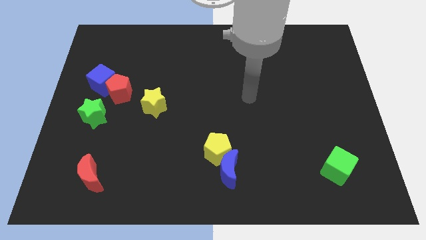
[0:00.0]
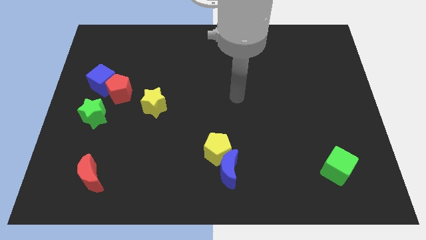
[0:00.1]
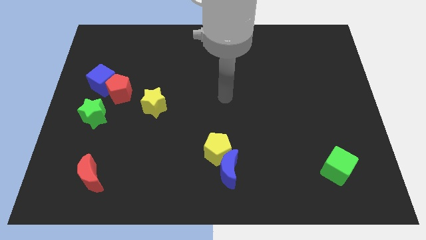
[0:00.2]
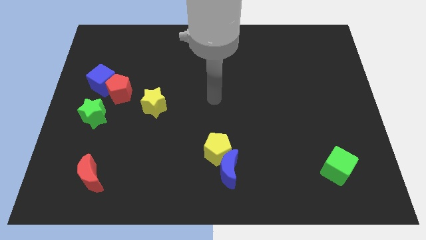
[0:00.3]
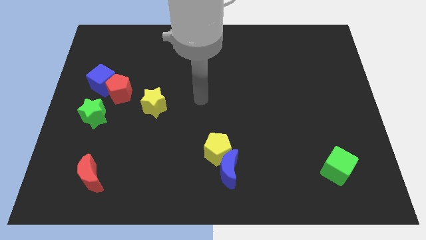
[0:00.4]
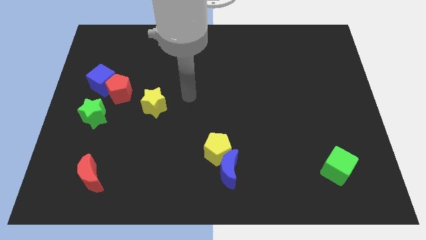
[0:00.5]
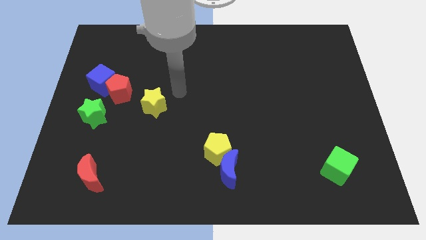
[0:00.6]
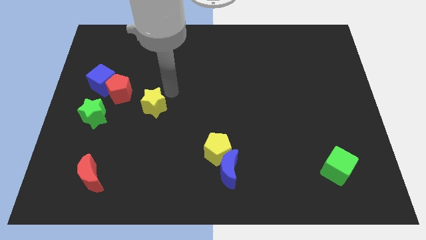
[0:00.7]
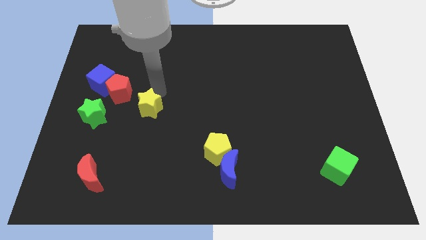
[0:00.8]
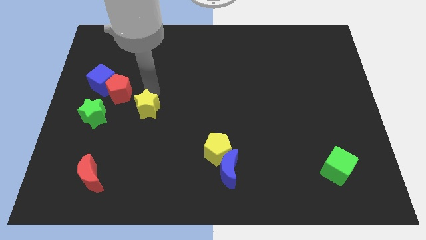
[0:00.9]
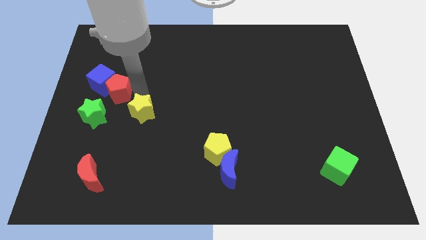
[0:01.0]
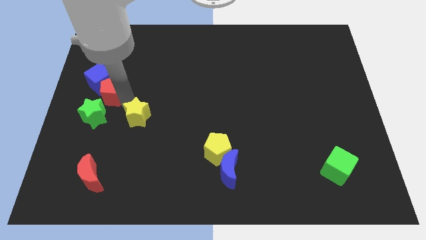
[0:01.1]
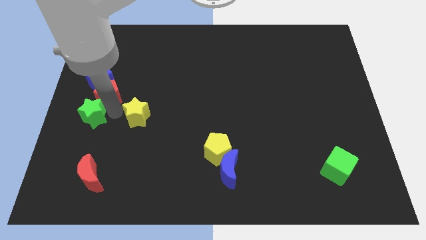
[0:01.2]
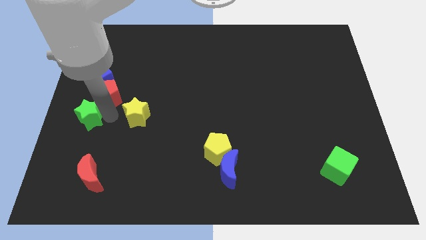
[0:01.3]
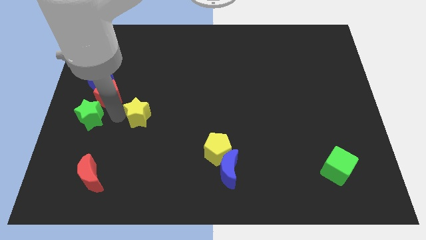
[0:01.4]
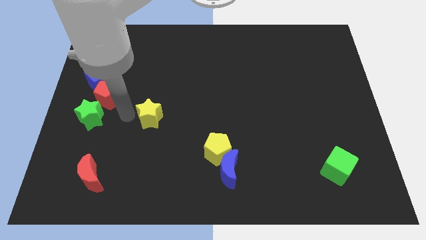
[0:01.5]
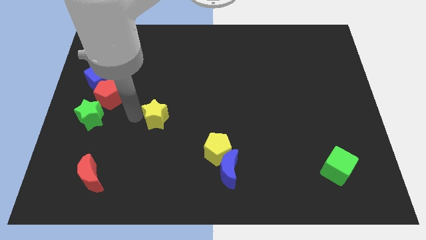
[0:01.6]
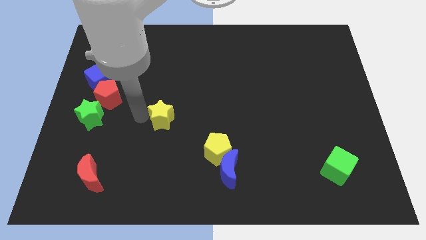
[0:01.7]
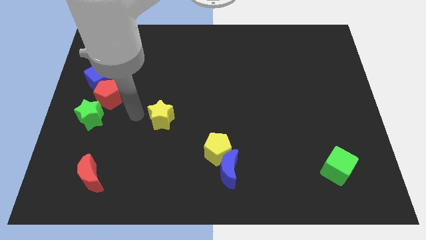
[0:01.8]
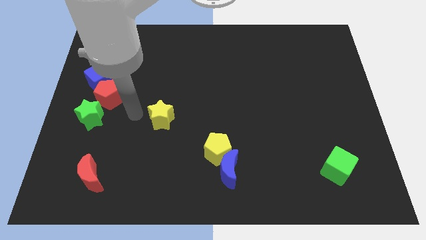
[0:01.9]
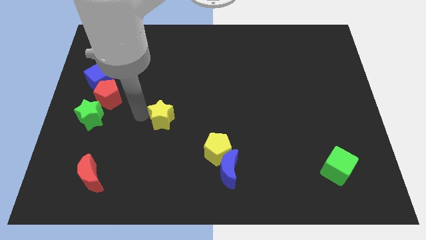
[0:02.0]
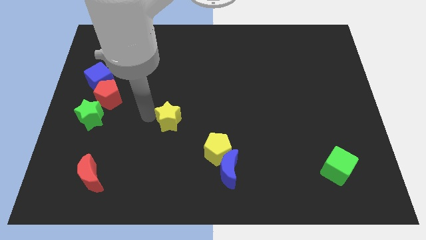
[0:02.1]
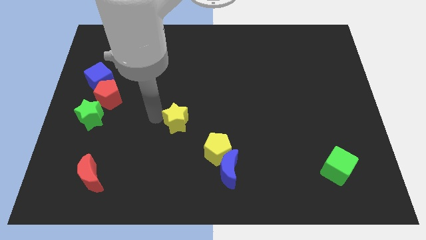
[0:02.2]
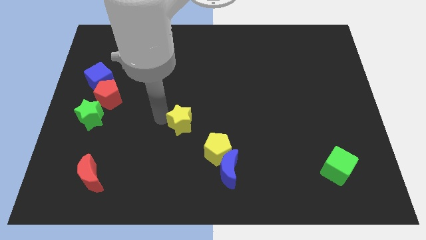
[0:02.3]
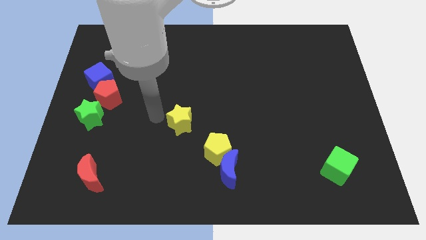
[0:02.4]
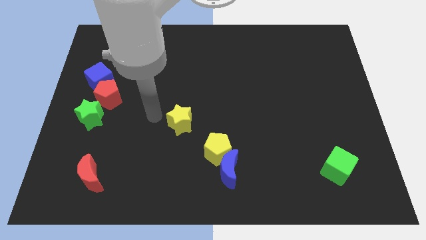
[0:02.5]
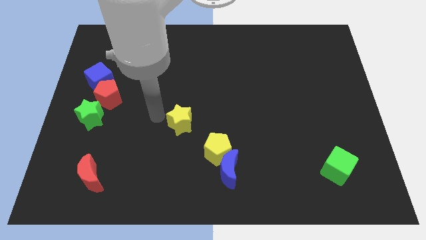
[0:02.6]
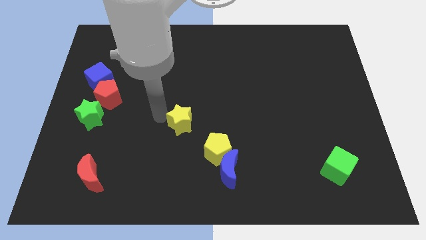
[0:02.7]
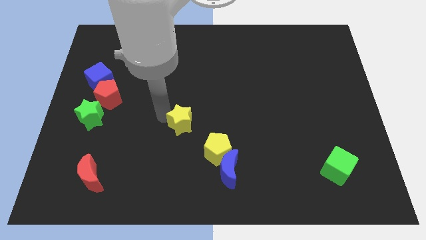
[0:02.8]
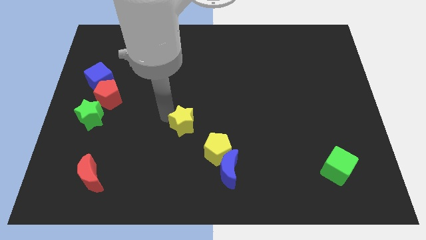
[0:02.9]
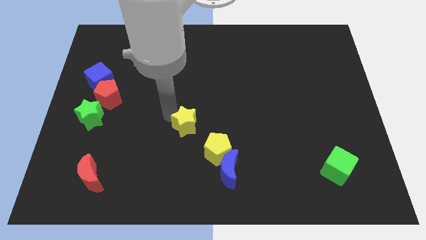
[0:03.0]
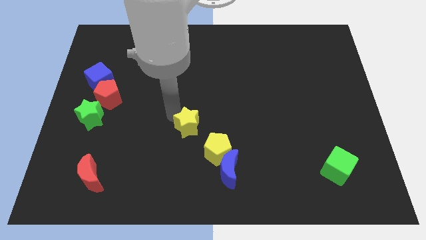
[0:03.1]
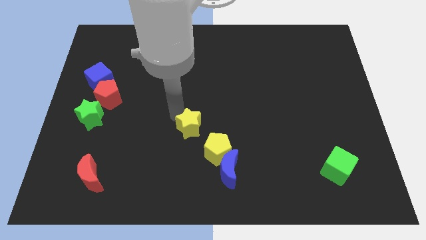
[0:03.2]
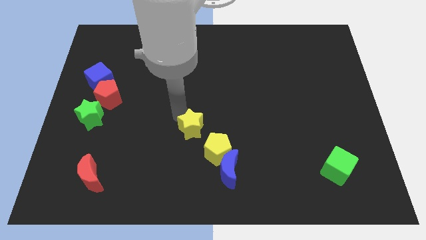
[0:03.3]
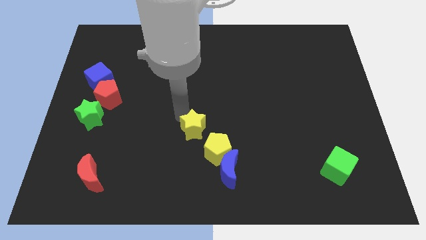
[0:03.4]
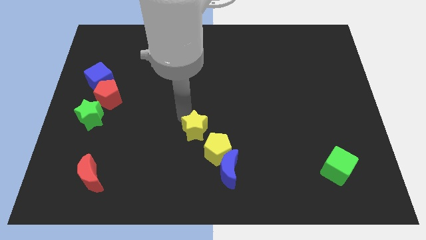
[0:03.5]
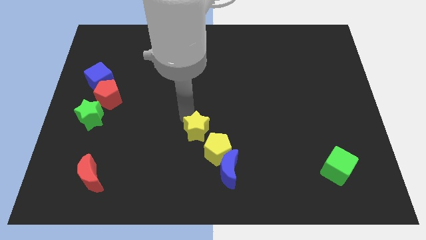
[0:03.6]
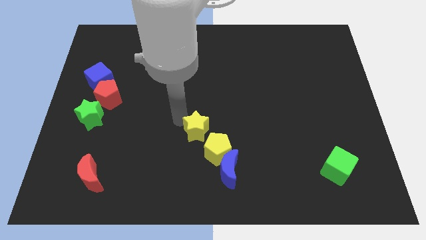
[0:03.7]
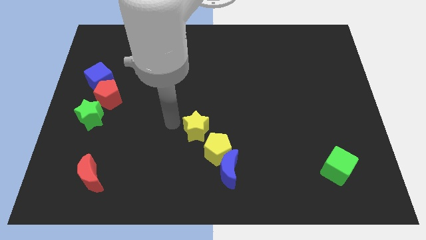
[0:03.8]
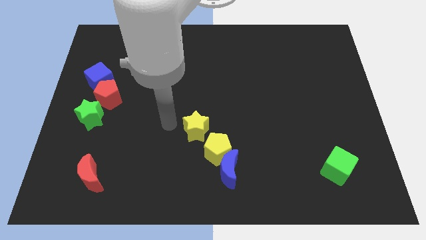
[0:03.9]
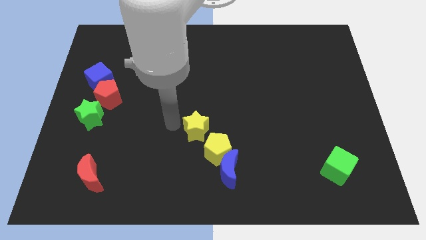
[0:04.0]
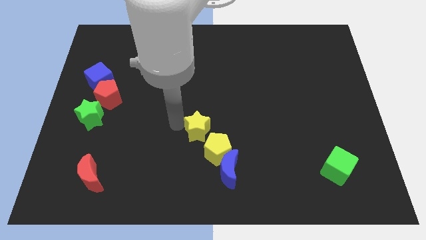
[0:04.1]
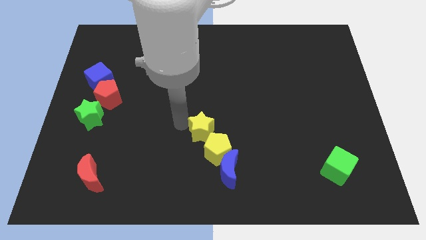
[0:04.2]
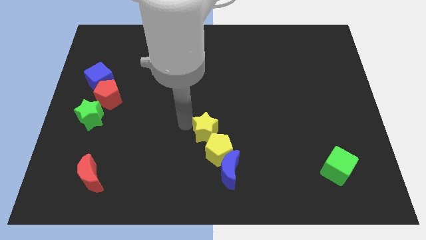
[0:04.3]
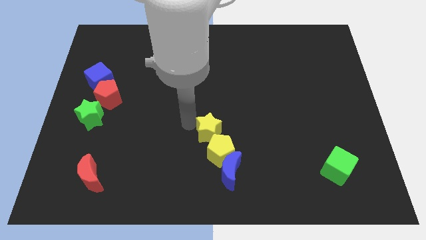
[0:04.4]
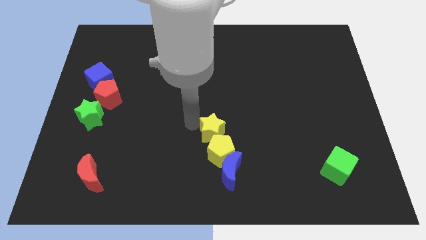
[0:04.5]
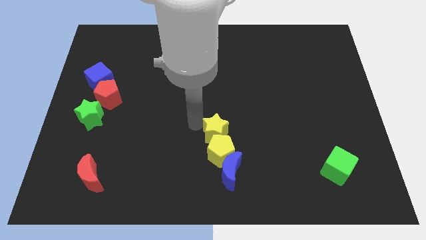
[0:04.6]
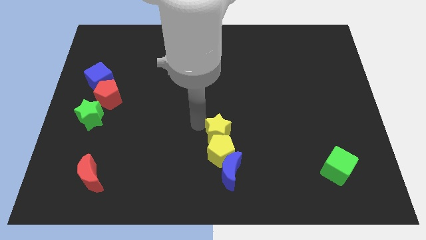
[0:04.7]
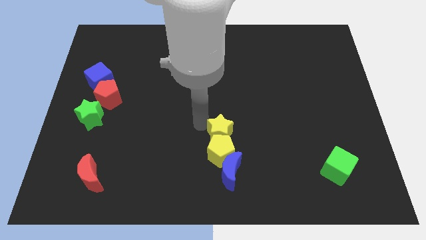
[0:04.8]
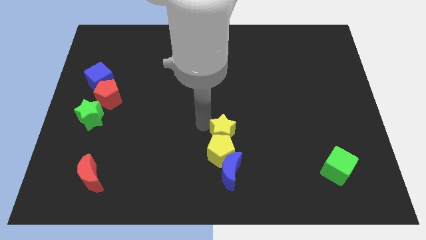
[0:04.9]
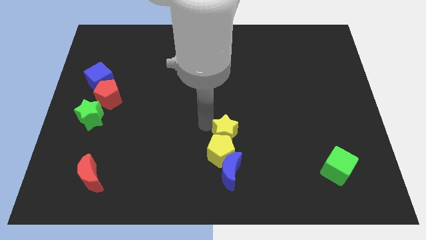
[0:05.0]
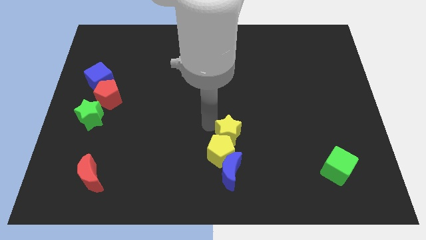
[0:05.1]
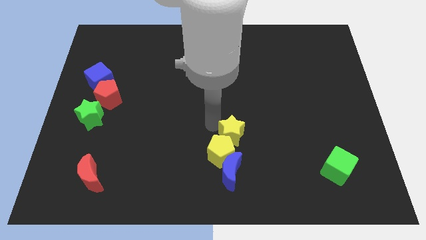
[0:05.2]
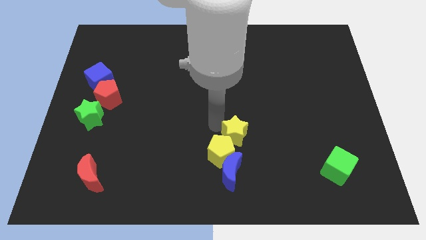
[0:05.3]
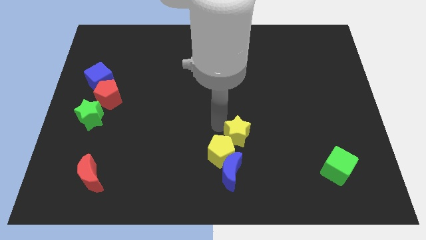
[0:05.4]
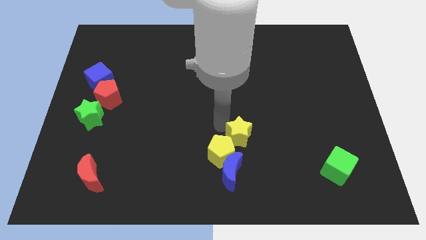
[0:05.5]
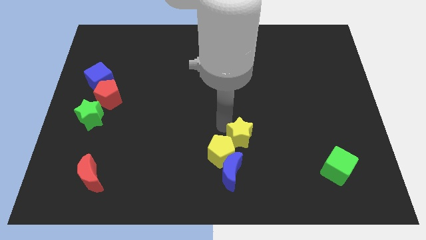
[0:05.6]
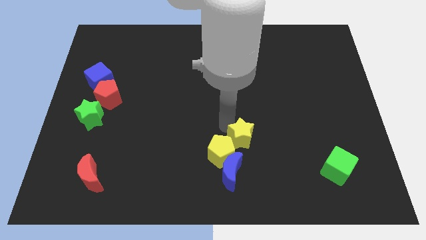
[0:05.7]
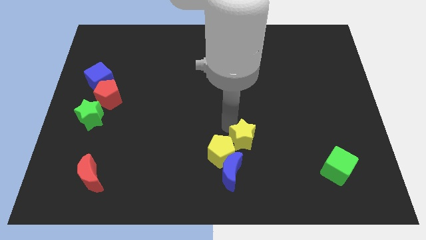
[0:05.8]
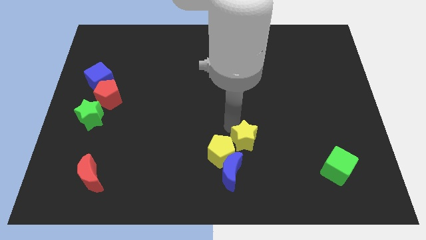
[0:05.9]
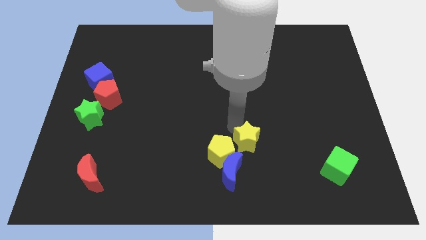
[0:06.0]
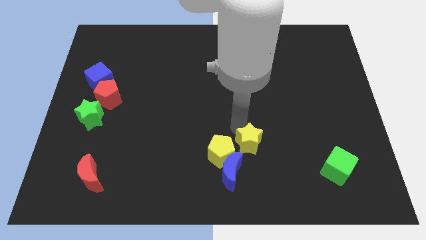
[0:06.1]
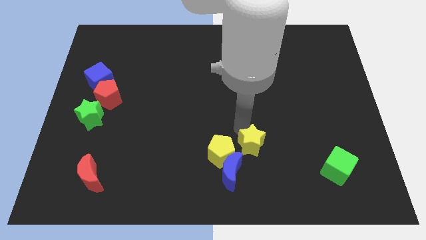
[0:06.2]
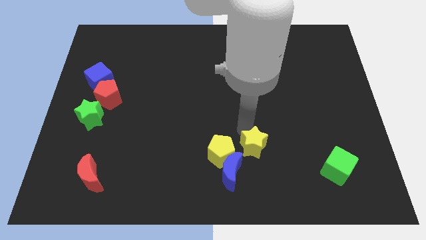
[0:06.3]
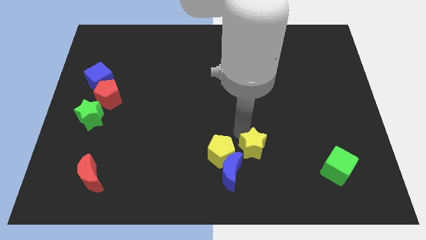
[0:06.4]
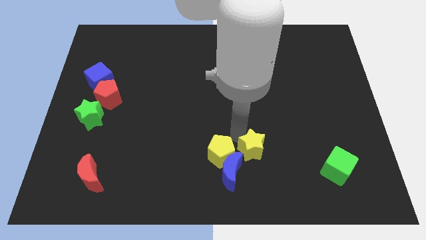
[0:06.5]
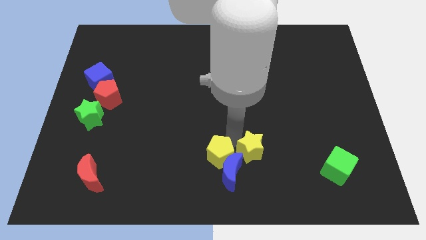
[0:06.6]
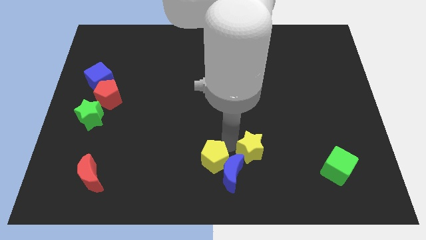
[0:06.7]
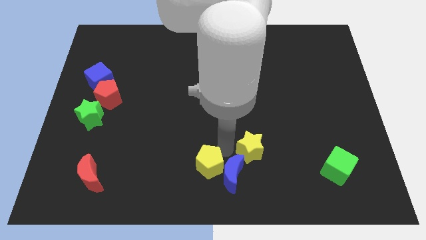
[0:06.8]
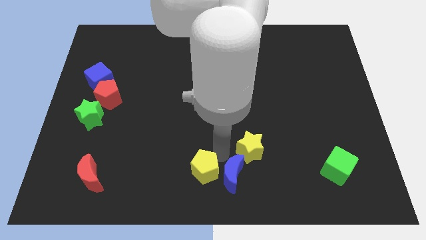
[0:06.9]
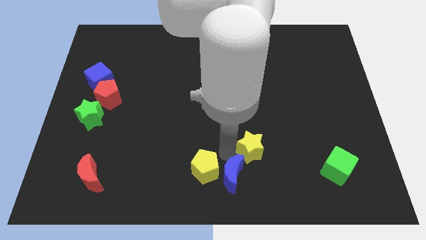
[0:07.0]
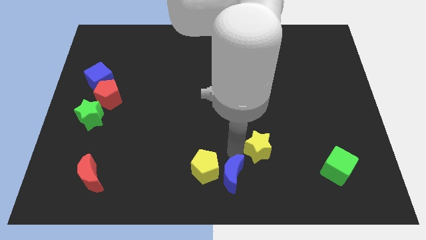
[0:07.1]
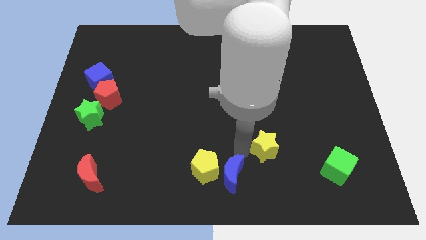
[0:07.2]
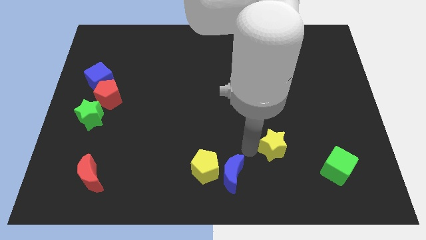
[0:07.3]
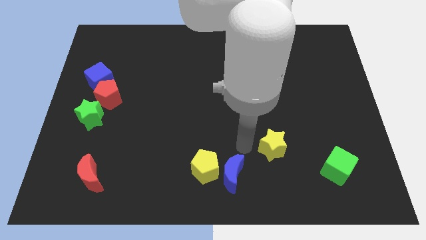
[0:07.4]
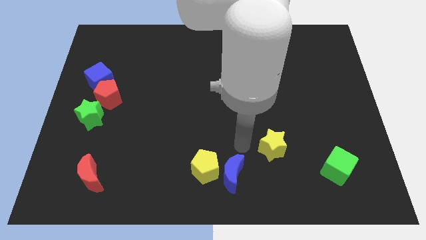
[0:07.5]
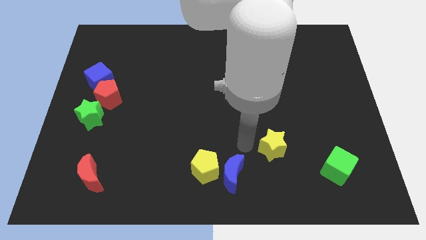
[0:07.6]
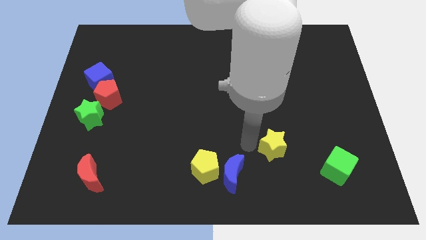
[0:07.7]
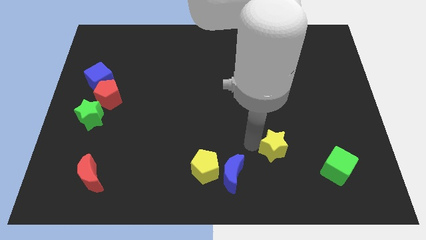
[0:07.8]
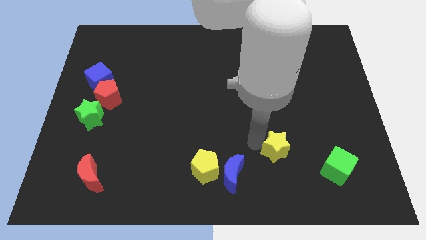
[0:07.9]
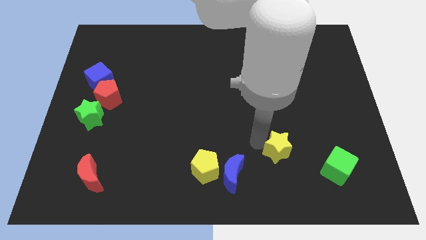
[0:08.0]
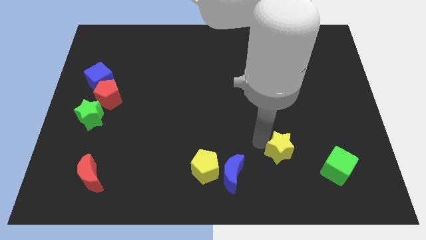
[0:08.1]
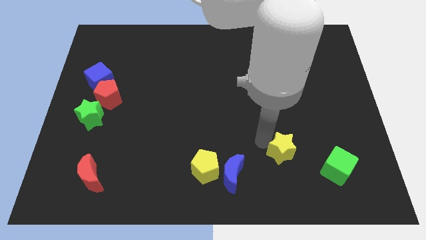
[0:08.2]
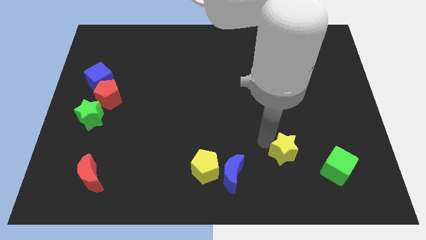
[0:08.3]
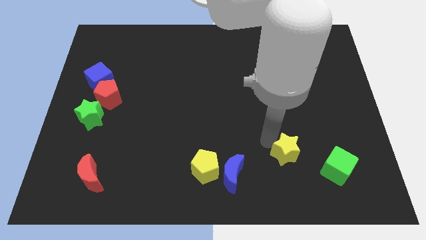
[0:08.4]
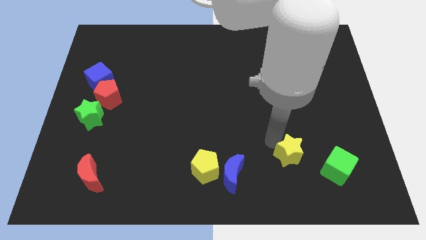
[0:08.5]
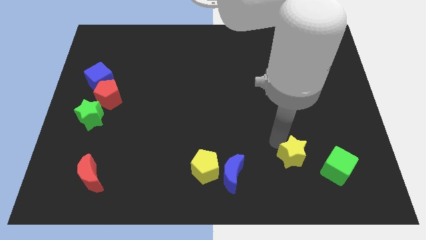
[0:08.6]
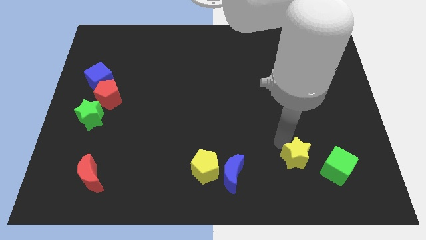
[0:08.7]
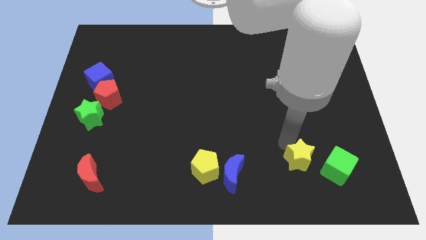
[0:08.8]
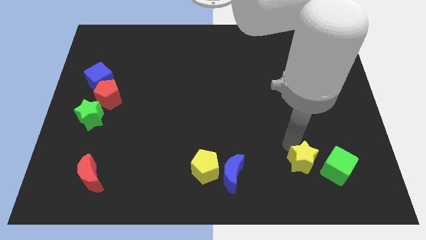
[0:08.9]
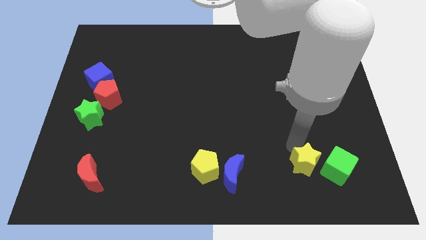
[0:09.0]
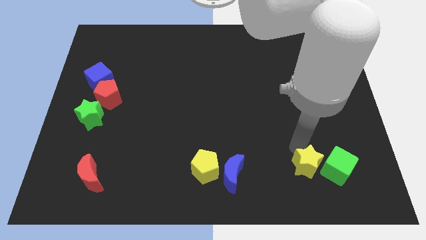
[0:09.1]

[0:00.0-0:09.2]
slide the yellow star to the green cube
